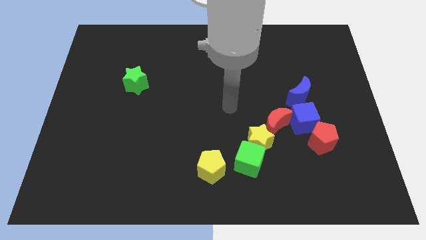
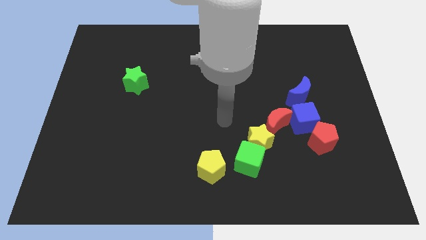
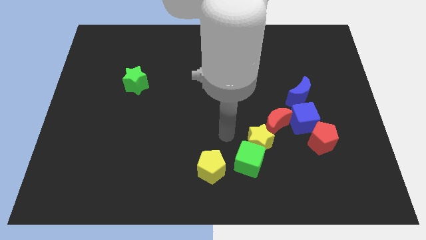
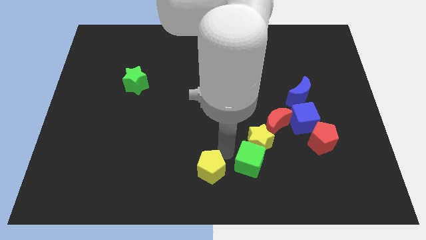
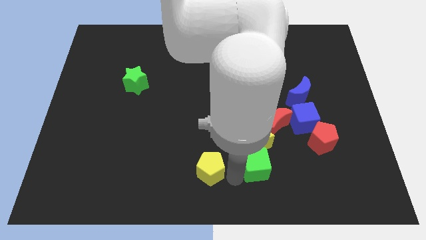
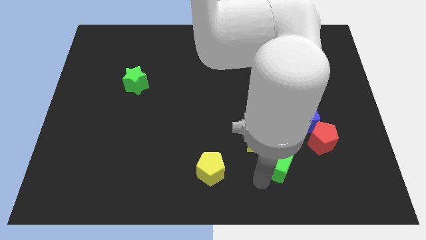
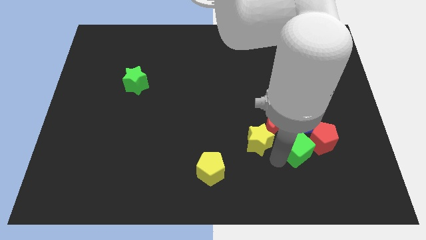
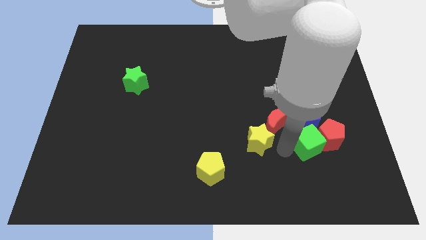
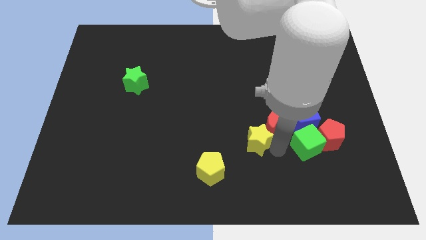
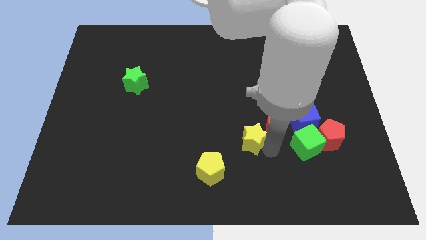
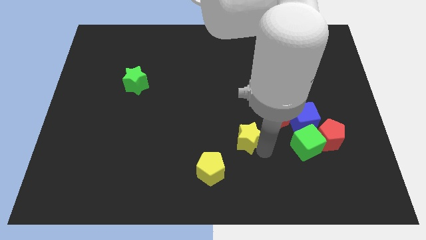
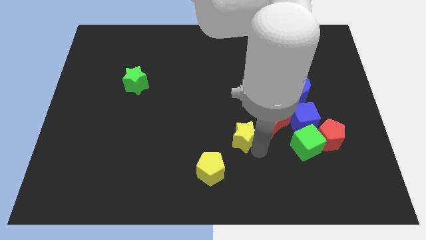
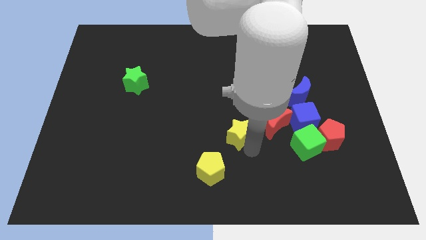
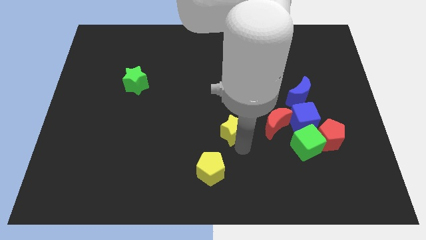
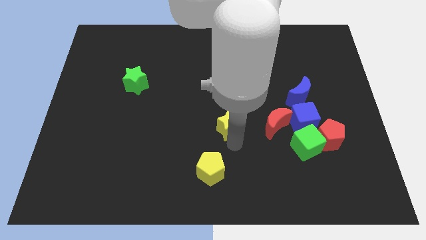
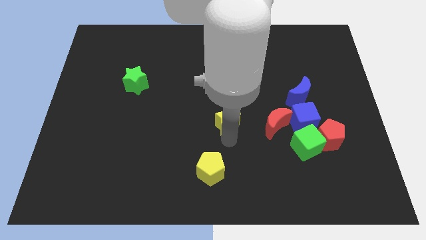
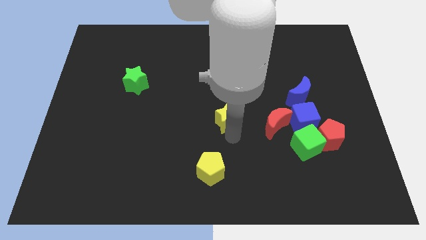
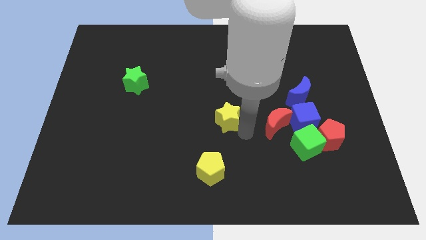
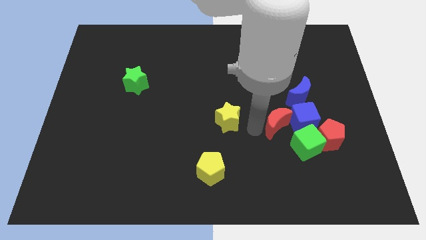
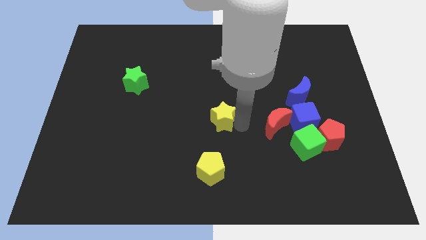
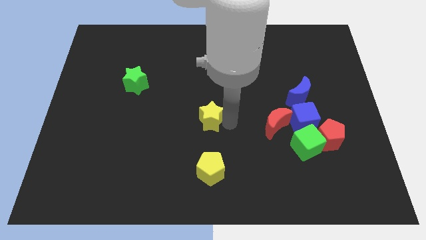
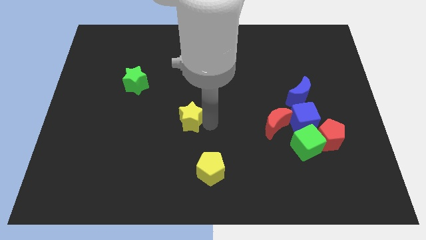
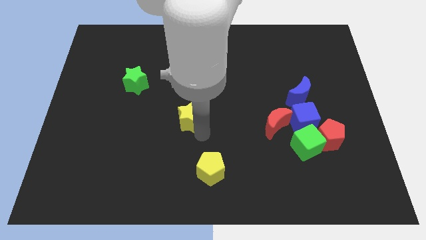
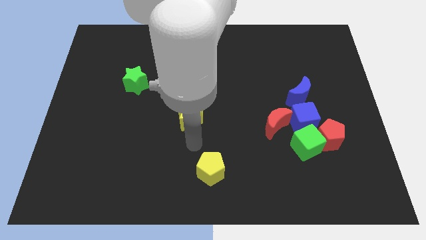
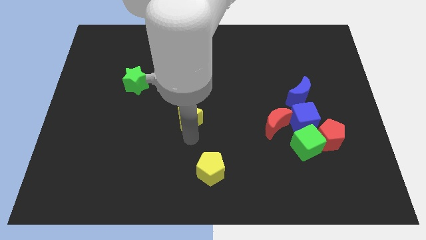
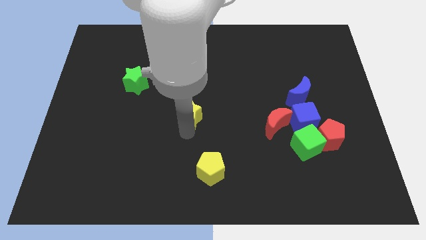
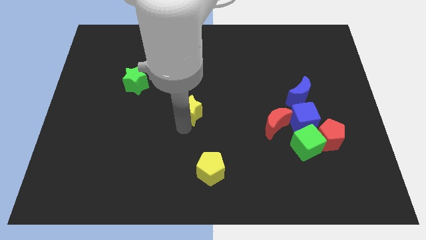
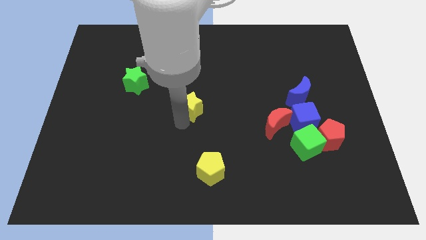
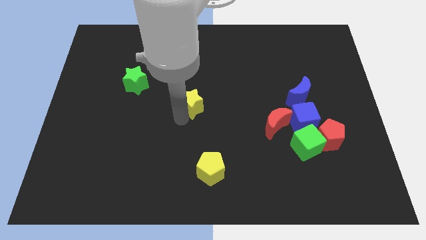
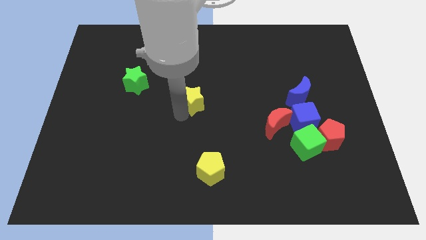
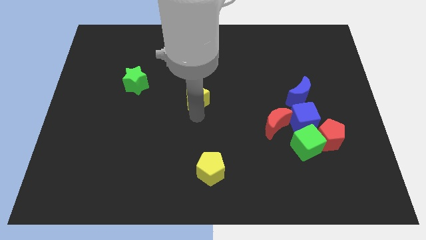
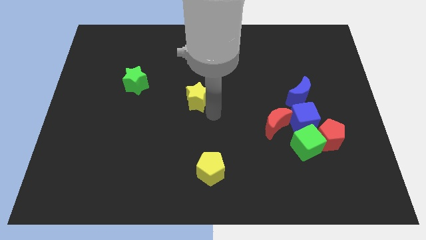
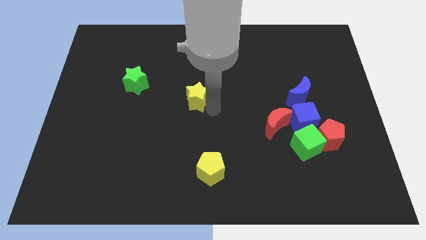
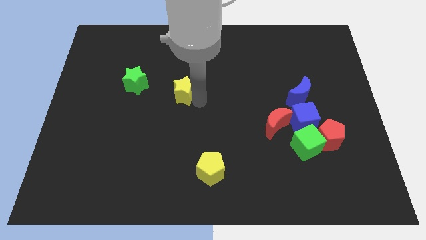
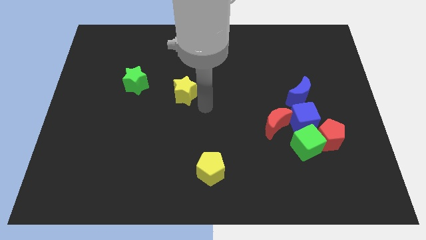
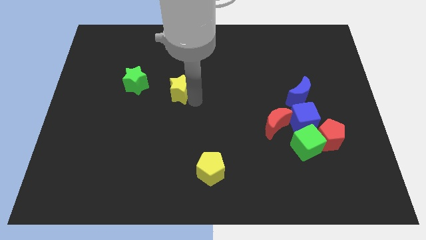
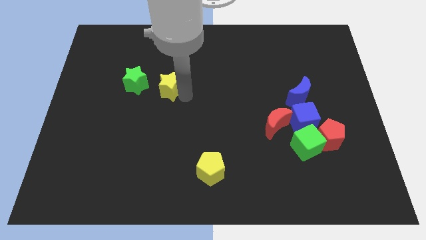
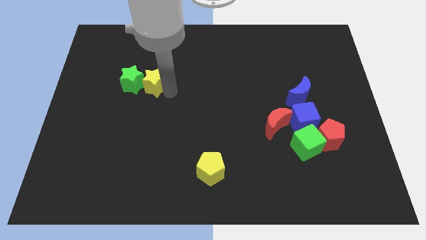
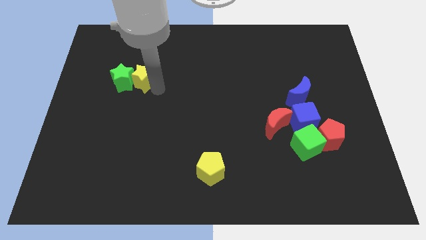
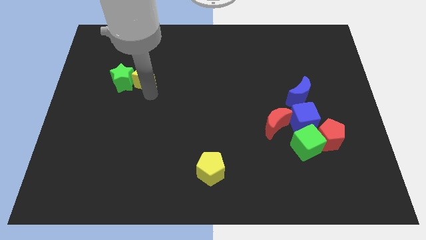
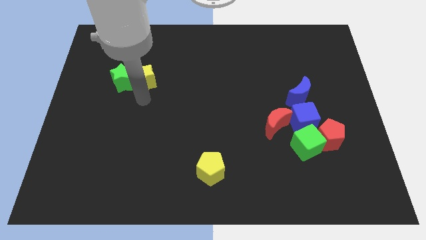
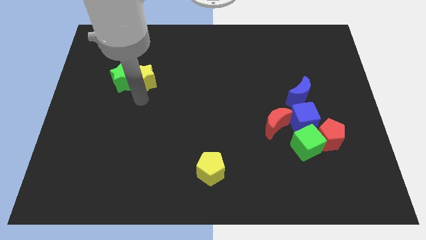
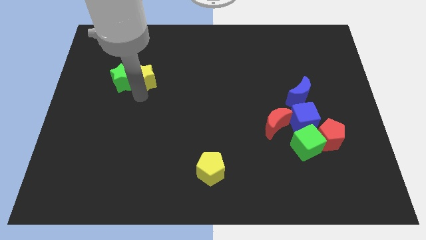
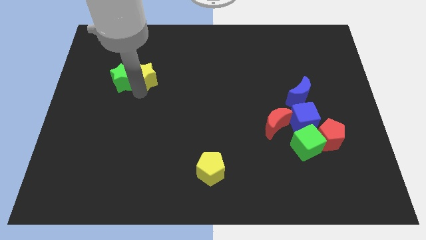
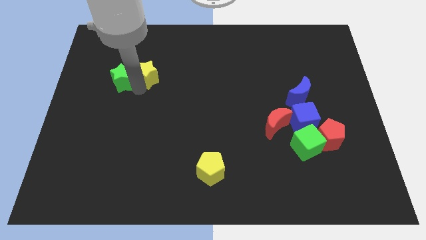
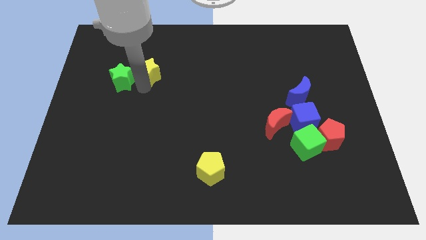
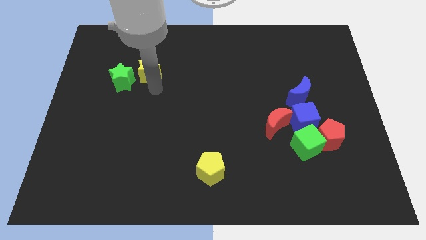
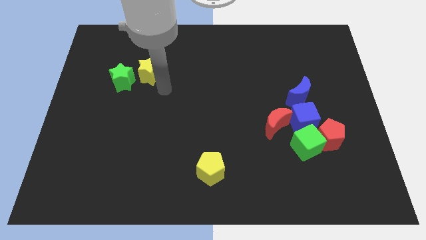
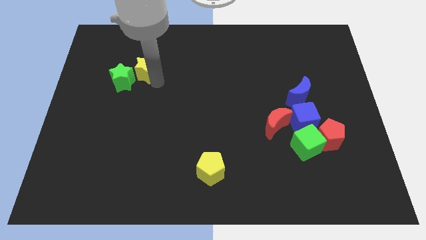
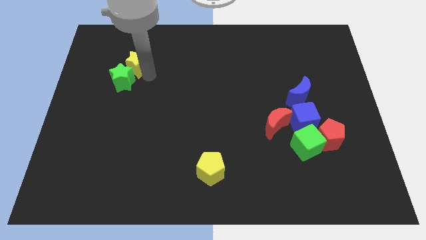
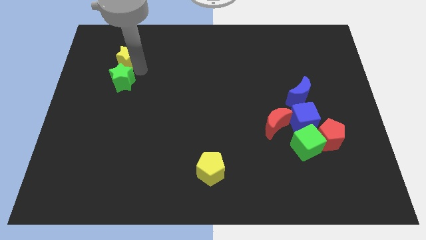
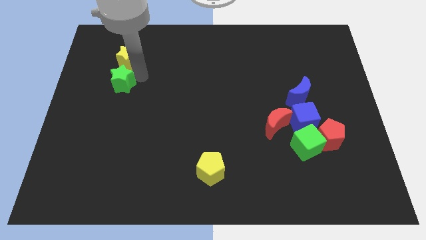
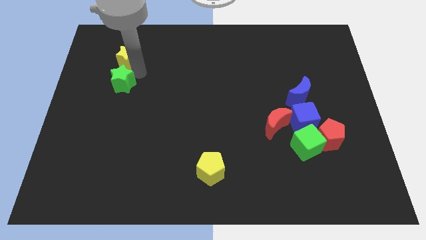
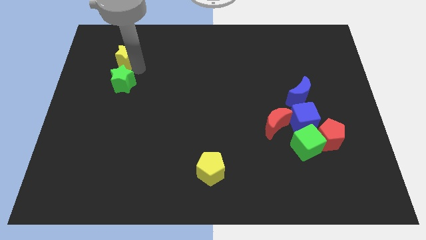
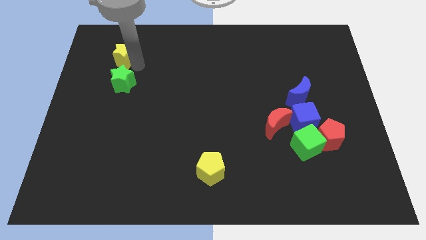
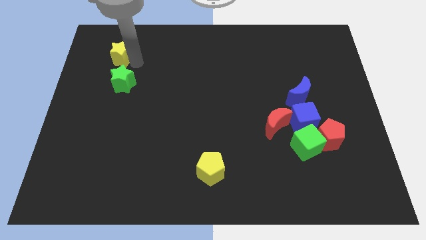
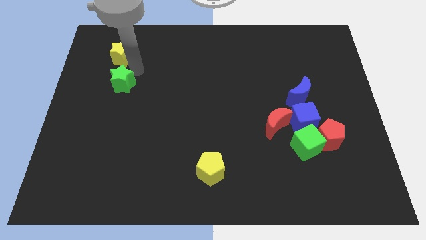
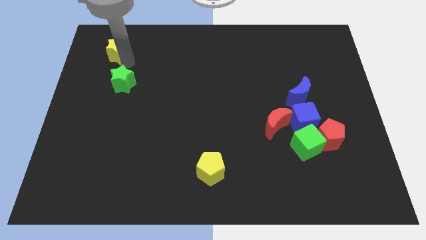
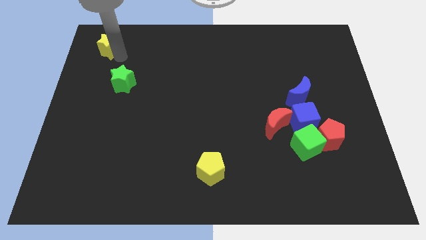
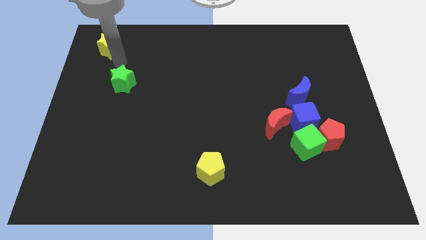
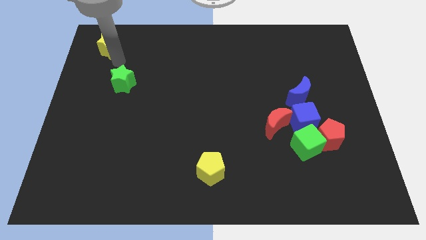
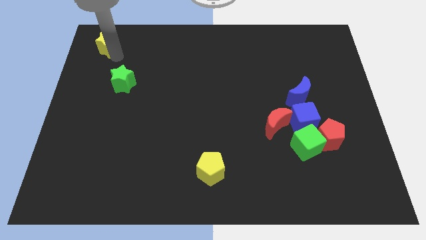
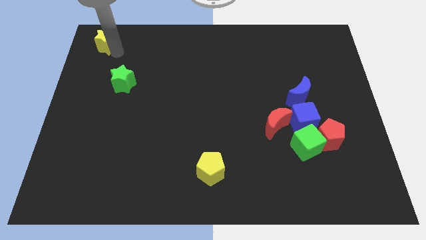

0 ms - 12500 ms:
slide the yellow star to the upper left corner
